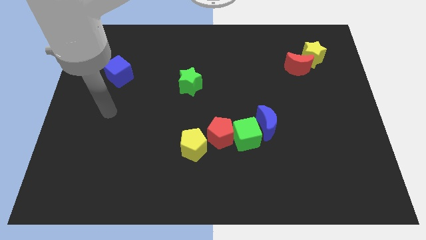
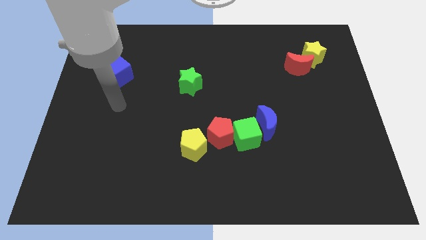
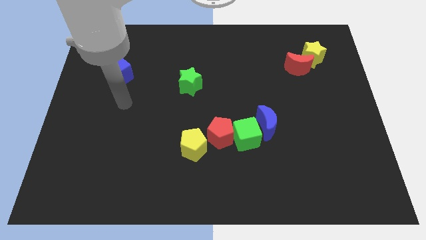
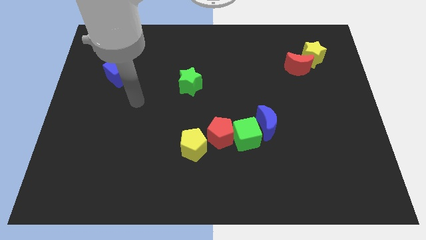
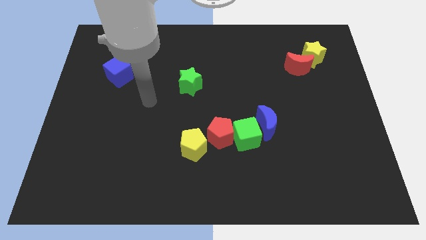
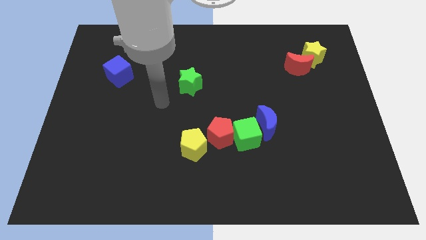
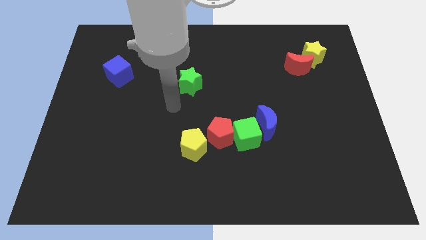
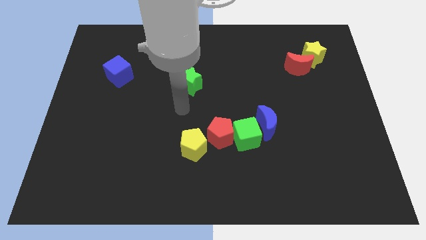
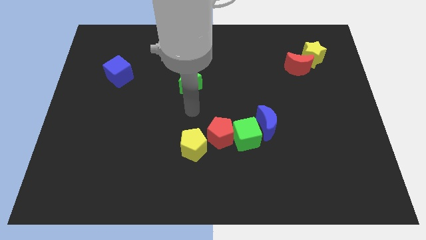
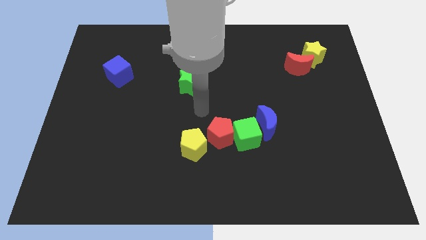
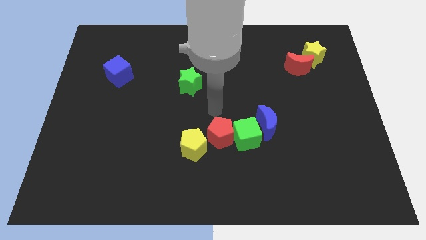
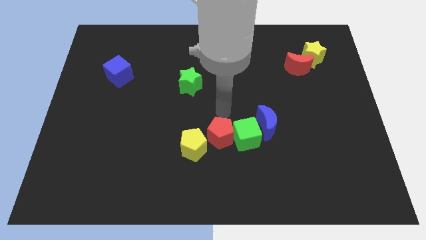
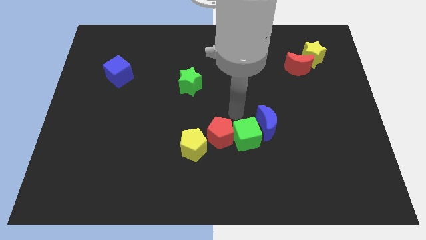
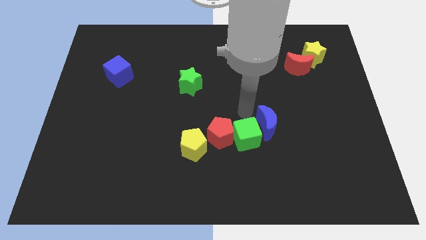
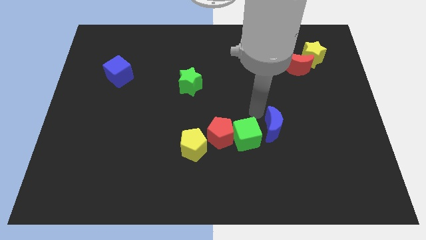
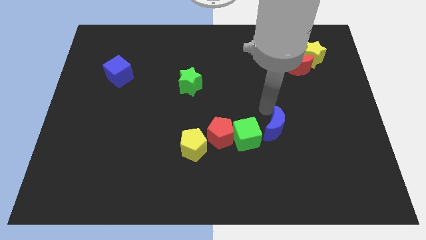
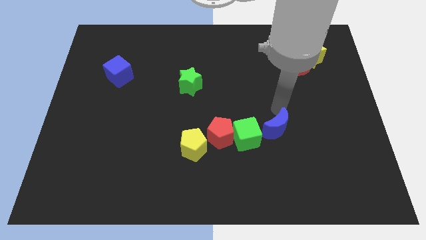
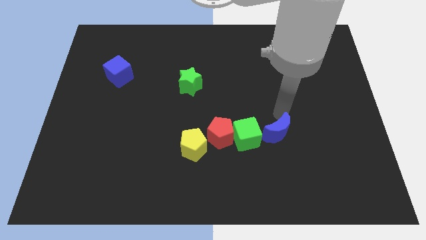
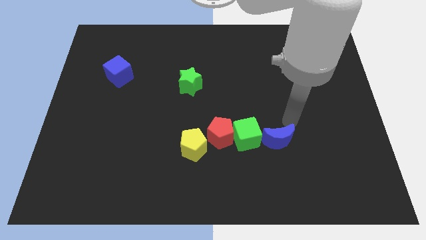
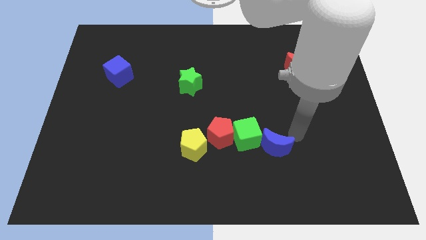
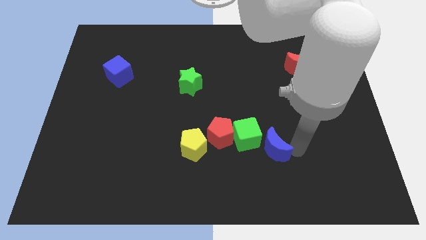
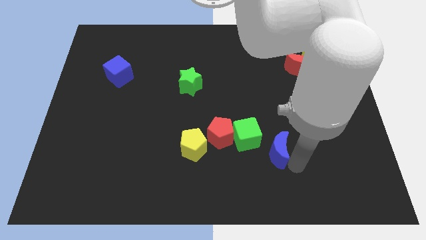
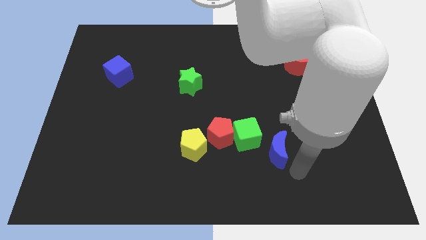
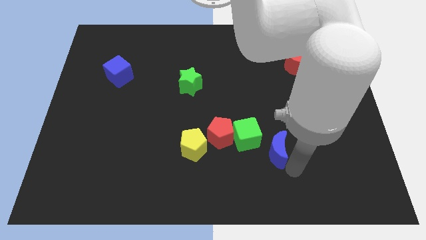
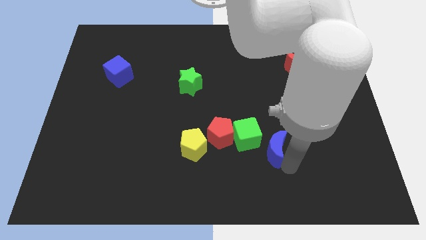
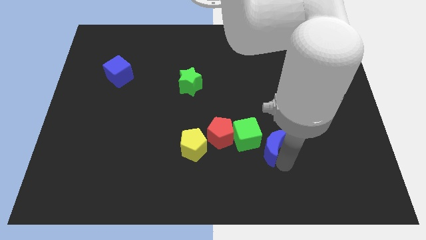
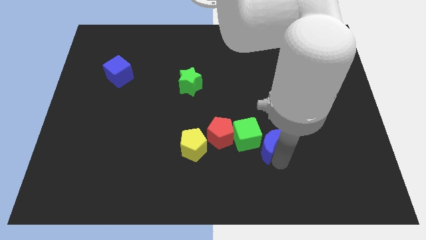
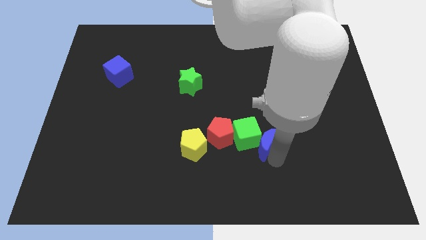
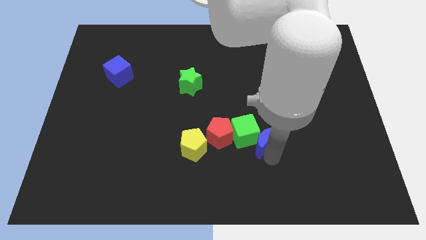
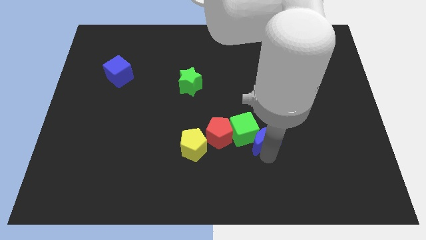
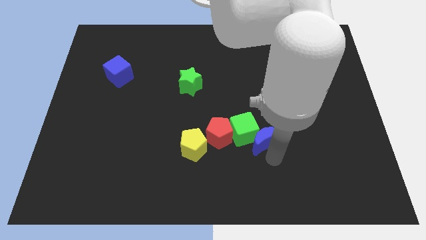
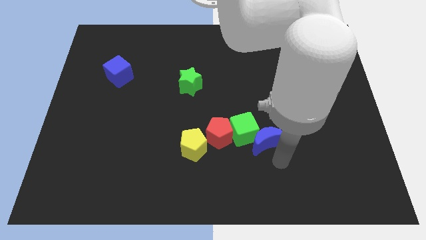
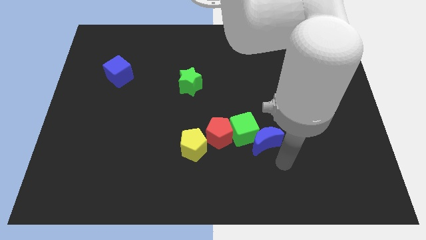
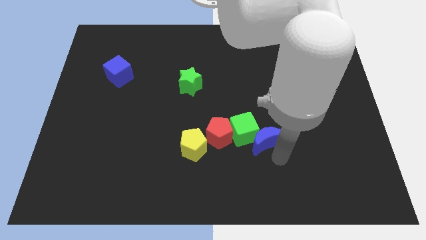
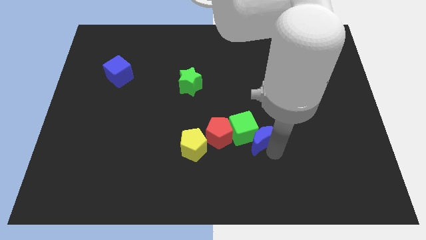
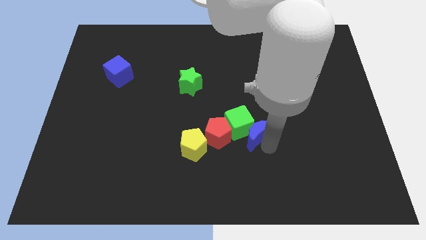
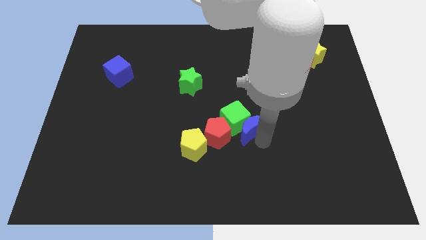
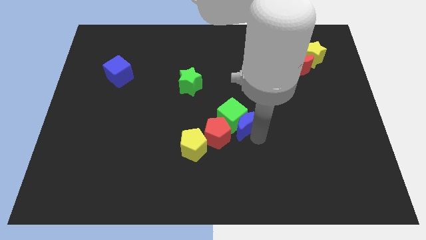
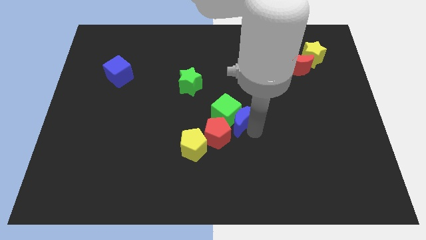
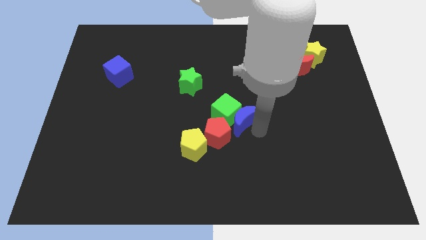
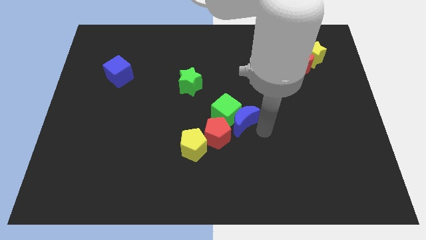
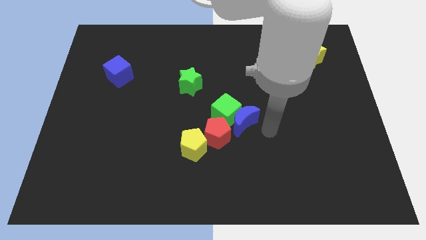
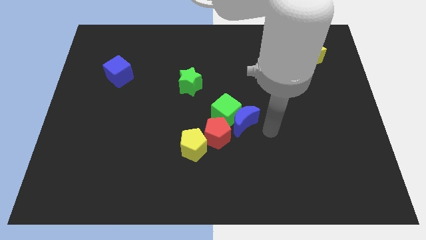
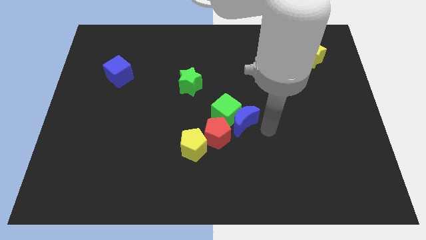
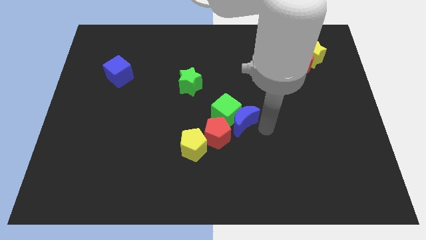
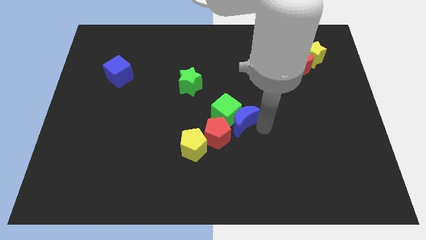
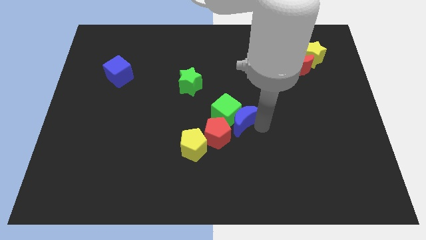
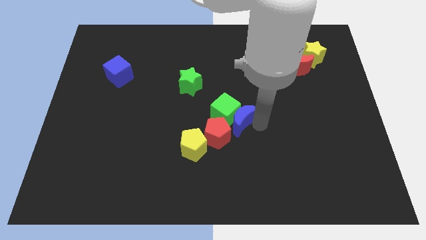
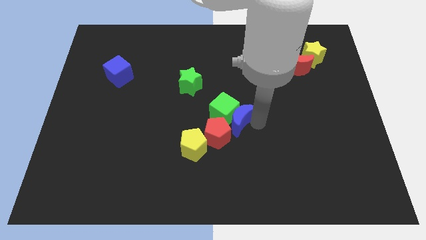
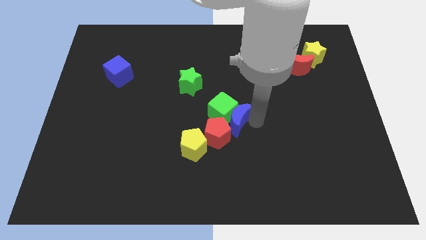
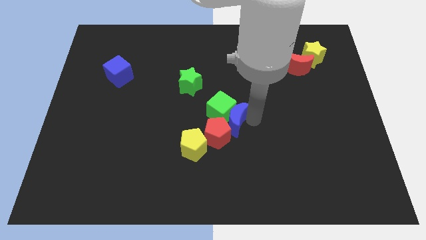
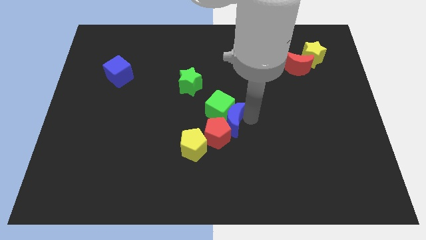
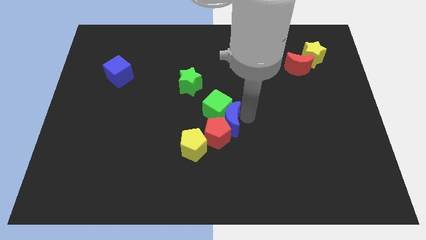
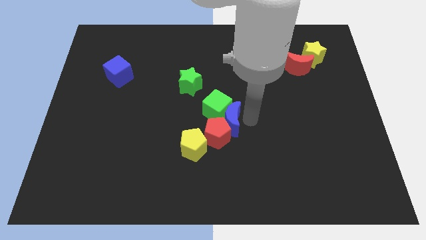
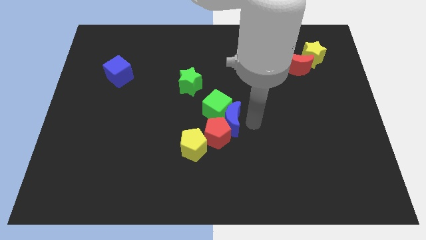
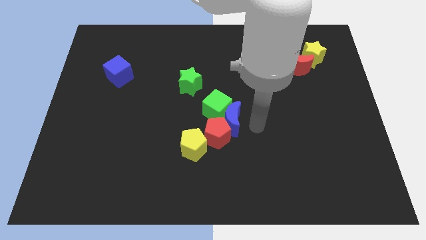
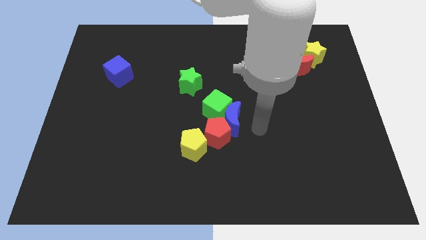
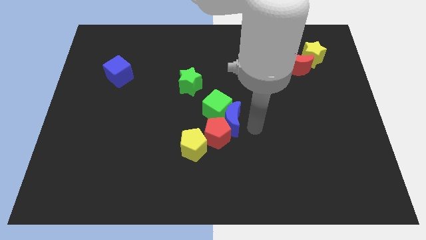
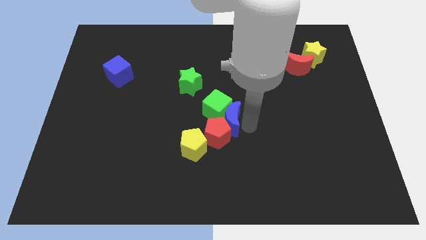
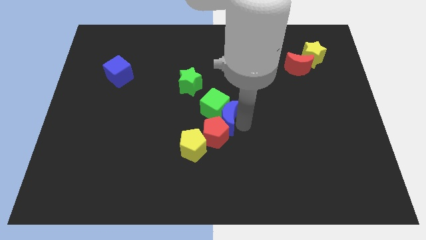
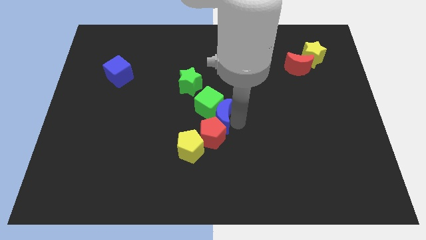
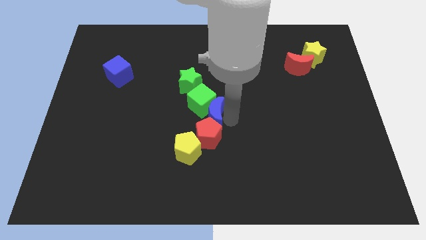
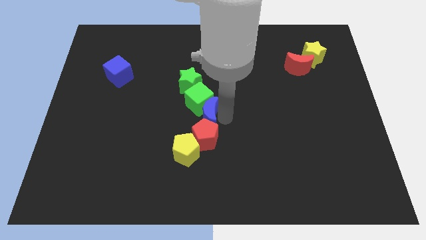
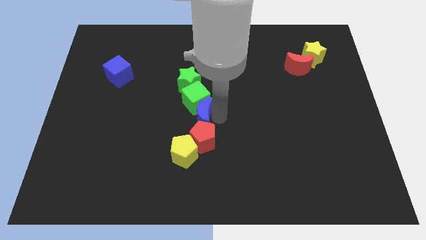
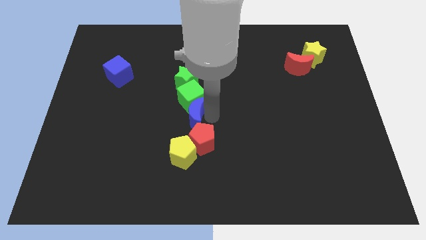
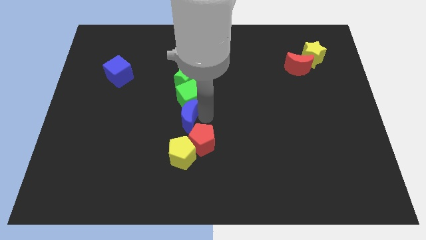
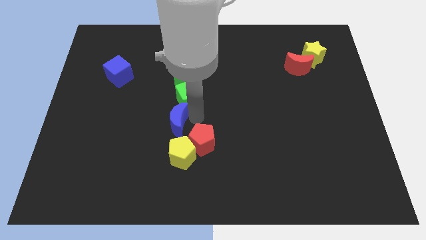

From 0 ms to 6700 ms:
slide the blue moon left

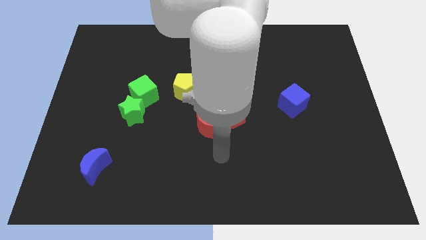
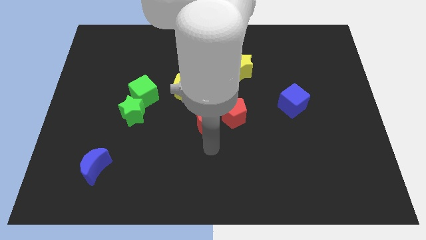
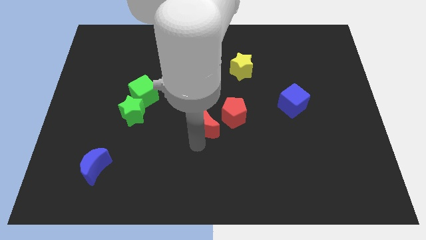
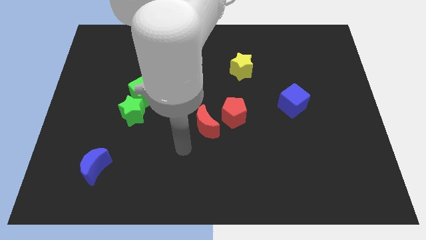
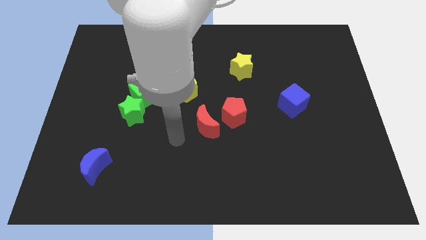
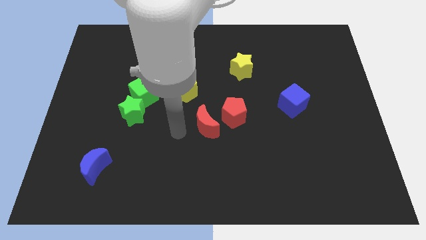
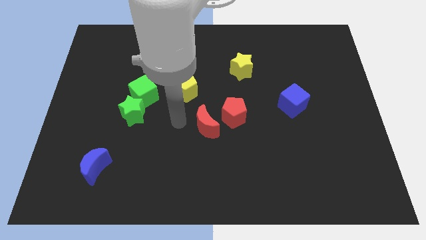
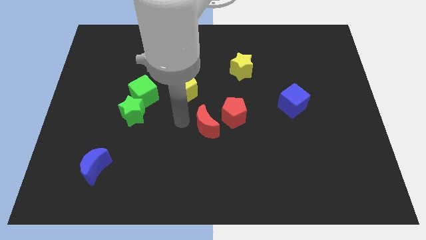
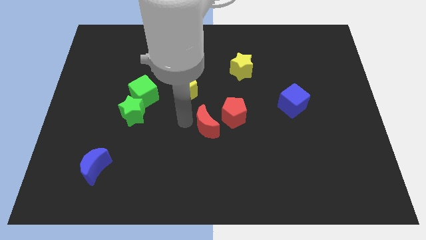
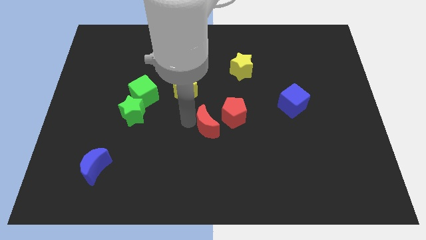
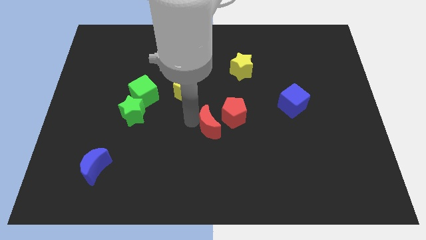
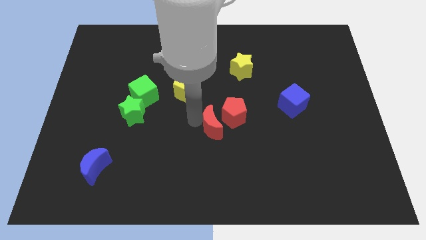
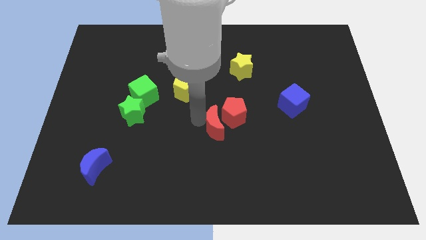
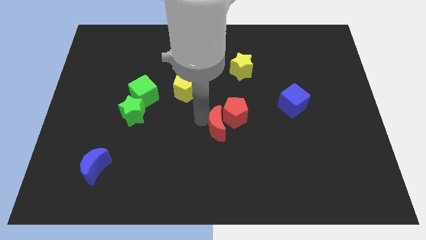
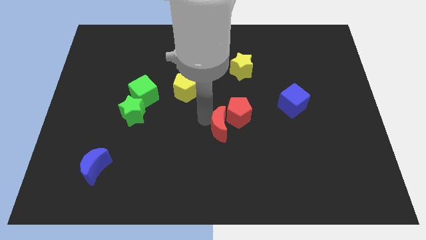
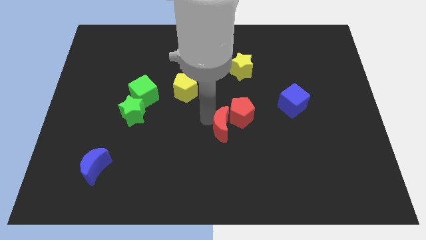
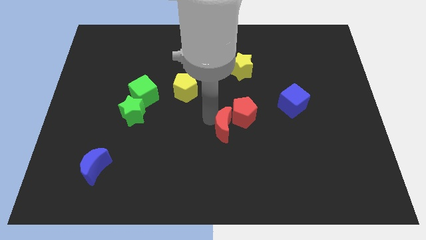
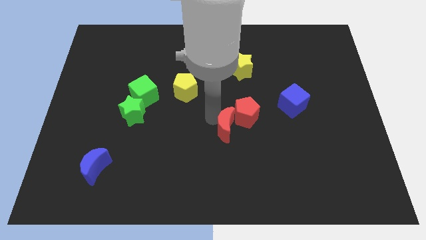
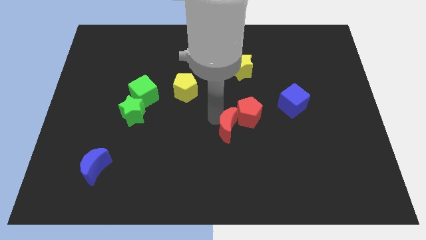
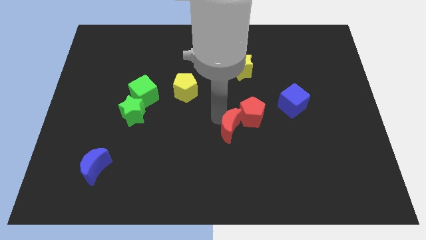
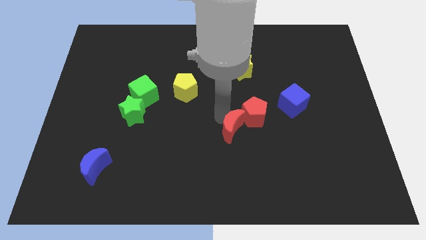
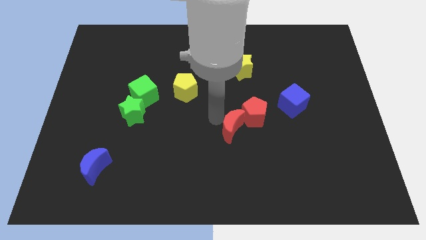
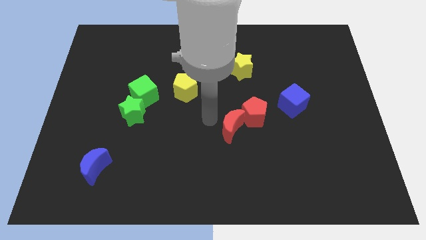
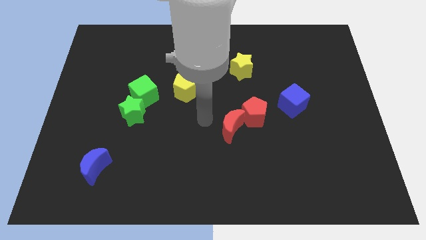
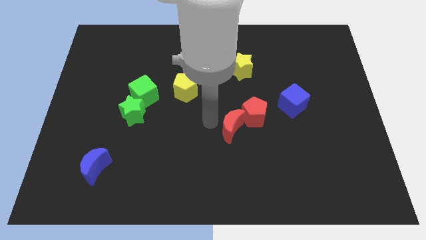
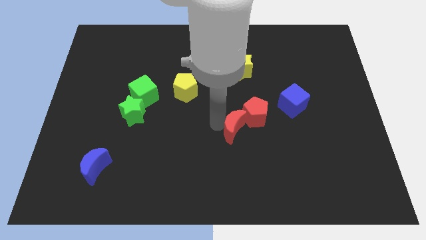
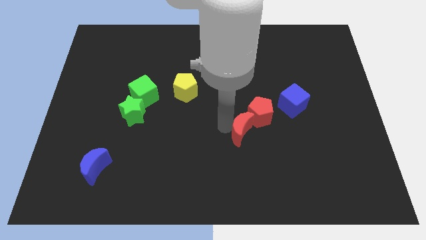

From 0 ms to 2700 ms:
slightly push the red moon right
